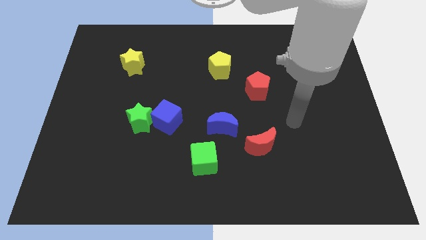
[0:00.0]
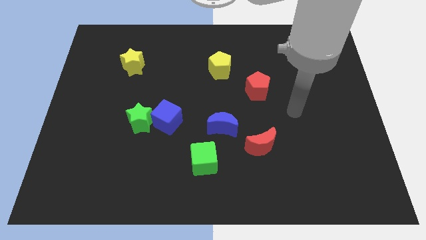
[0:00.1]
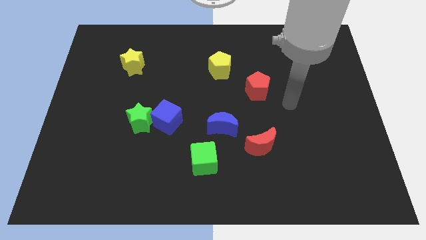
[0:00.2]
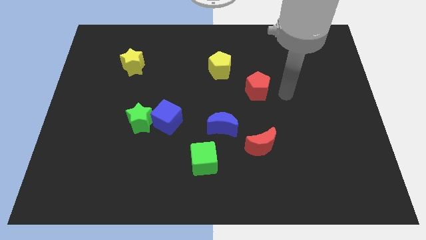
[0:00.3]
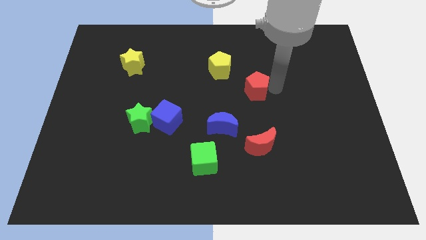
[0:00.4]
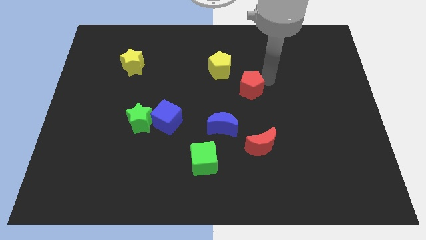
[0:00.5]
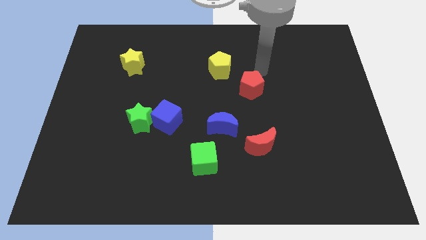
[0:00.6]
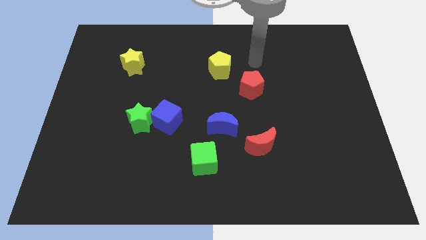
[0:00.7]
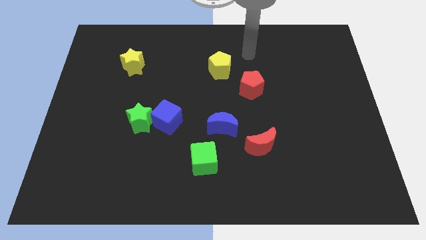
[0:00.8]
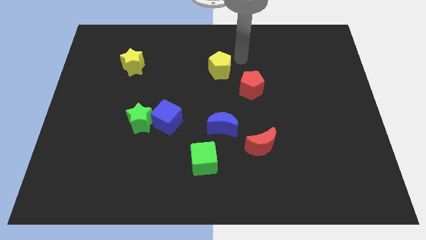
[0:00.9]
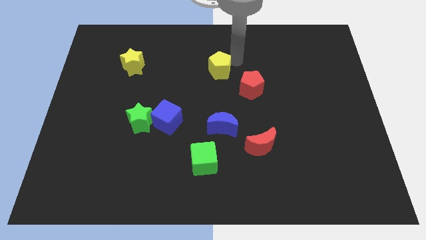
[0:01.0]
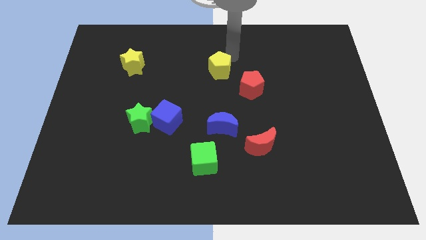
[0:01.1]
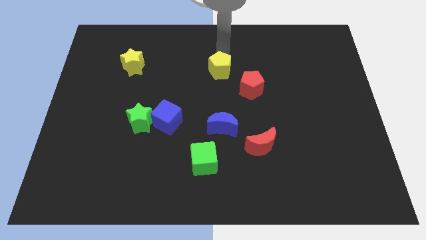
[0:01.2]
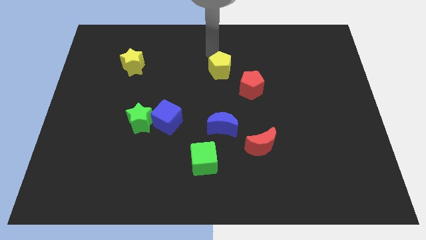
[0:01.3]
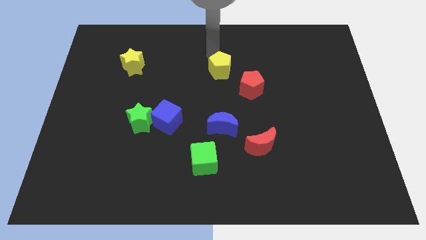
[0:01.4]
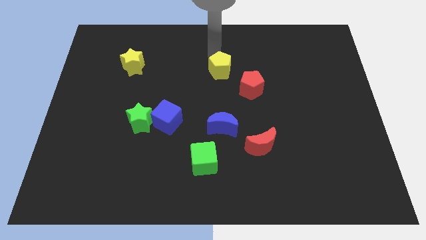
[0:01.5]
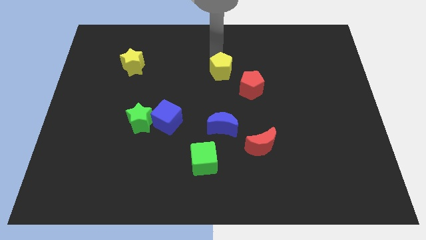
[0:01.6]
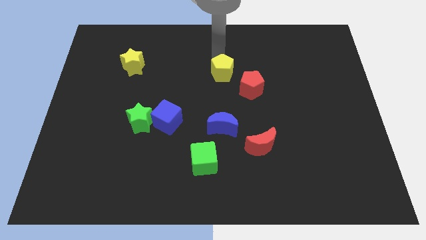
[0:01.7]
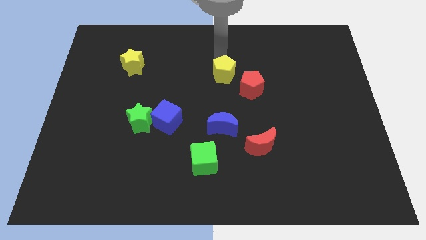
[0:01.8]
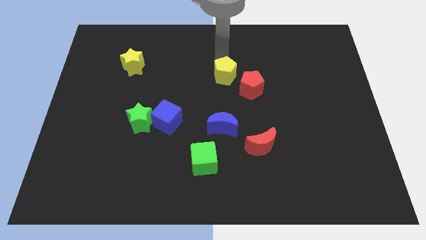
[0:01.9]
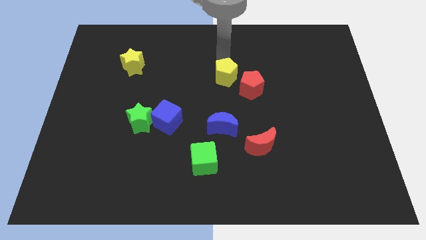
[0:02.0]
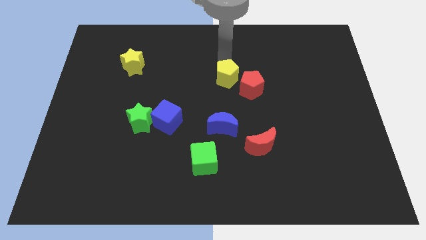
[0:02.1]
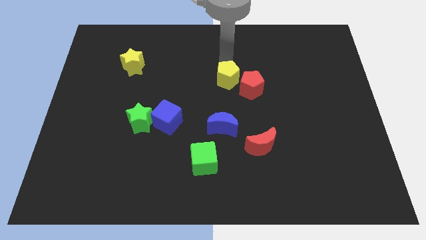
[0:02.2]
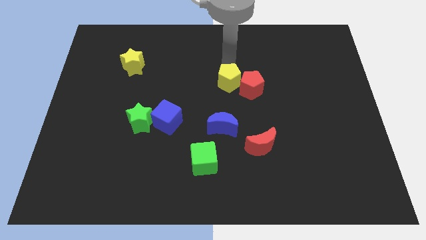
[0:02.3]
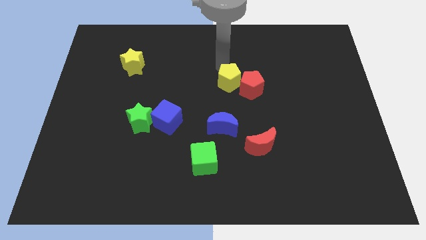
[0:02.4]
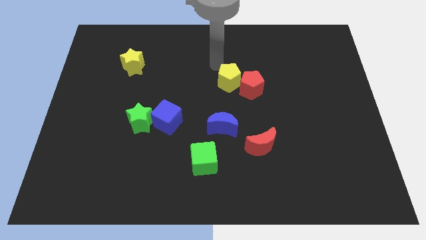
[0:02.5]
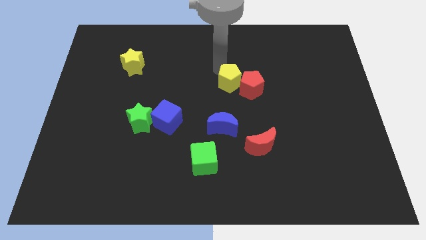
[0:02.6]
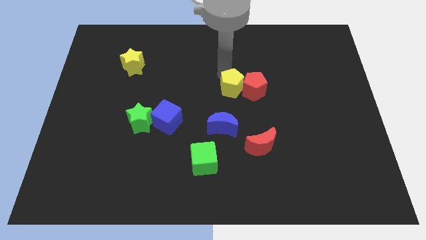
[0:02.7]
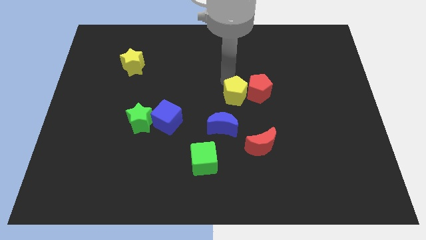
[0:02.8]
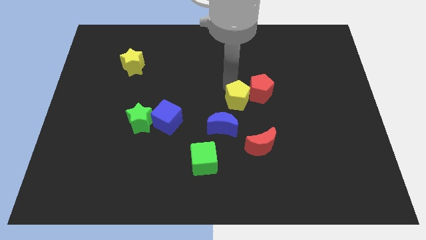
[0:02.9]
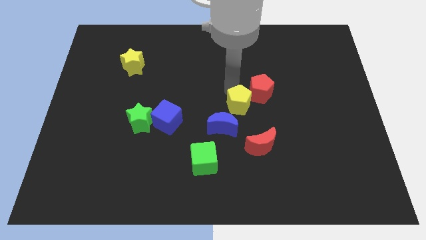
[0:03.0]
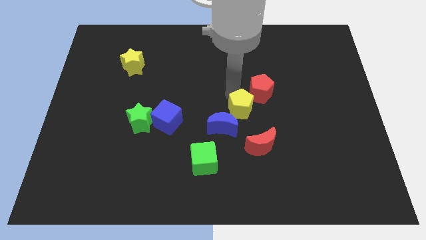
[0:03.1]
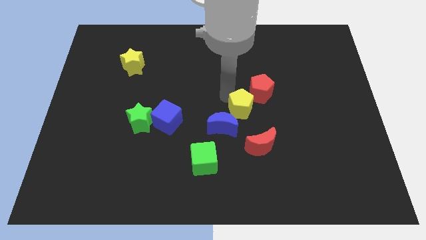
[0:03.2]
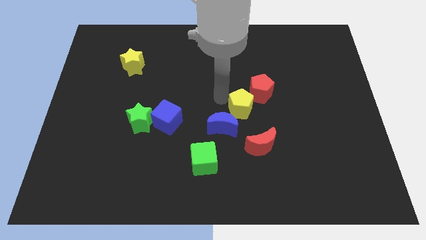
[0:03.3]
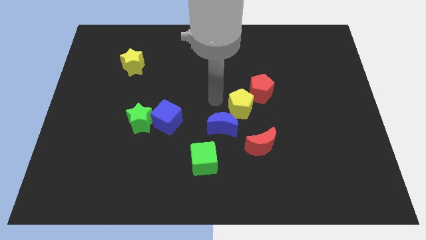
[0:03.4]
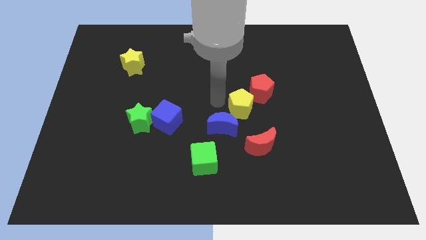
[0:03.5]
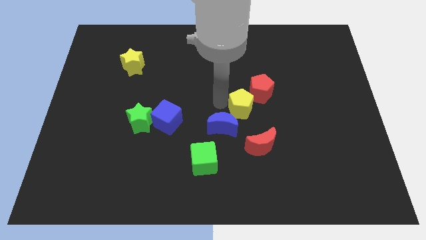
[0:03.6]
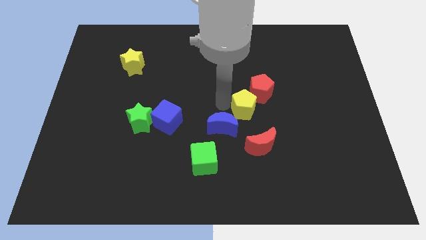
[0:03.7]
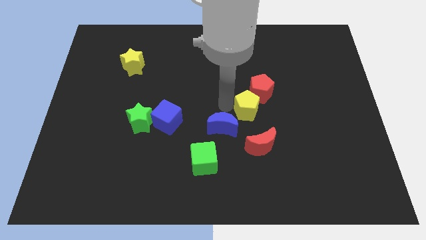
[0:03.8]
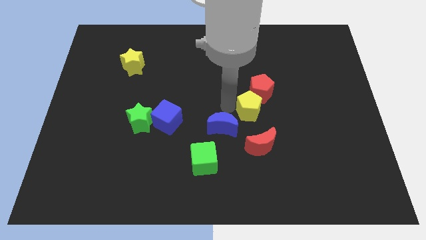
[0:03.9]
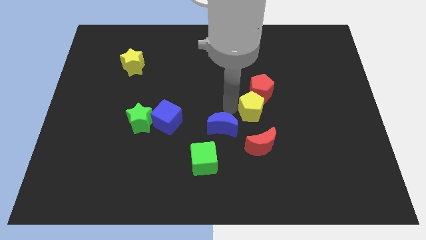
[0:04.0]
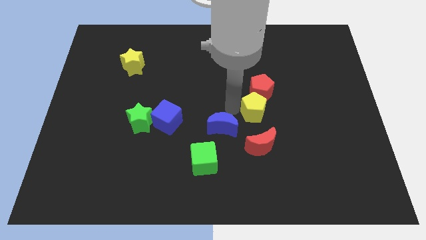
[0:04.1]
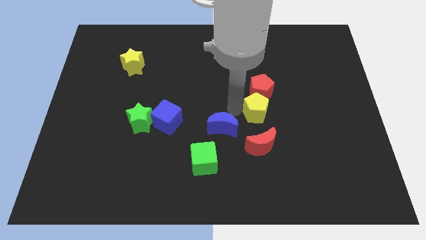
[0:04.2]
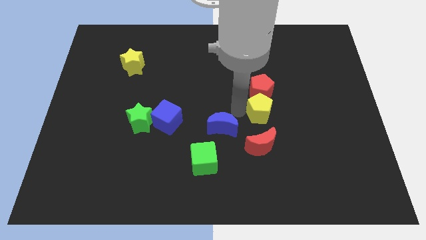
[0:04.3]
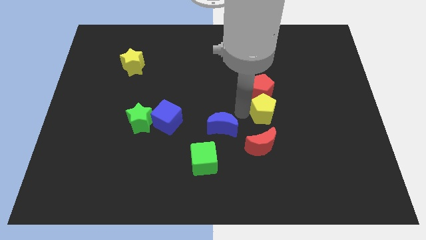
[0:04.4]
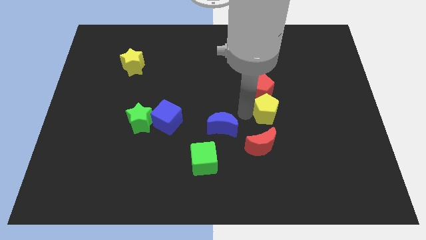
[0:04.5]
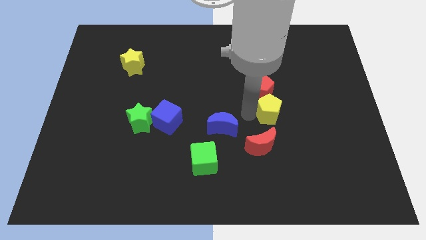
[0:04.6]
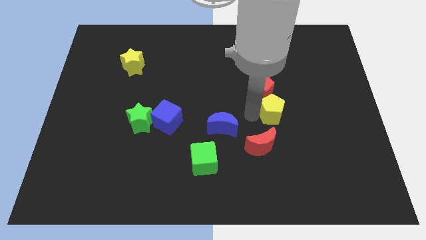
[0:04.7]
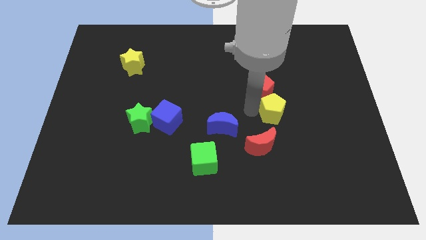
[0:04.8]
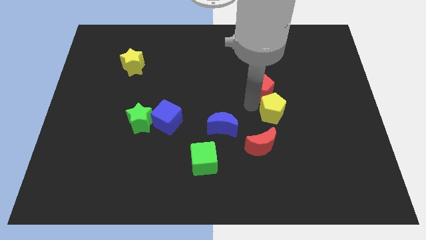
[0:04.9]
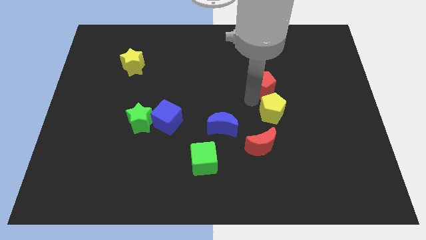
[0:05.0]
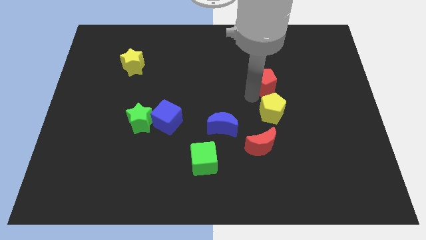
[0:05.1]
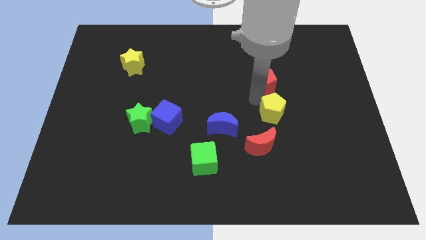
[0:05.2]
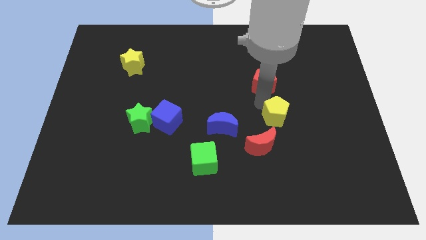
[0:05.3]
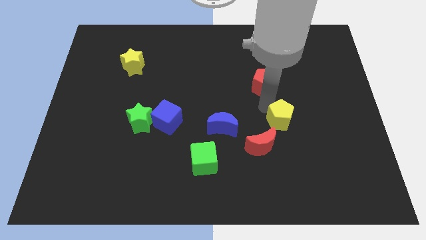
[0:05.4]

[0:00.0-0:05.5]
move the yellow pentagon diagonally down and to the right

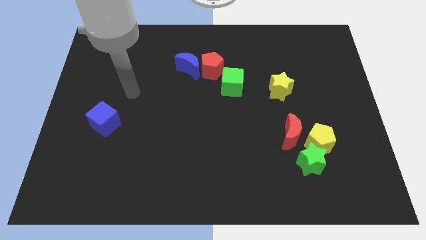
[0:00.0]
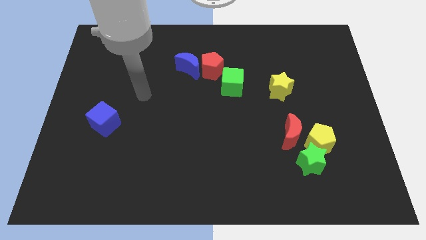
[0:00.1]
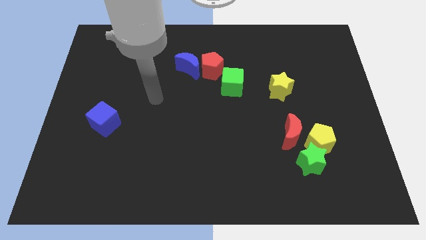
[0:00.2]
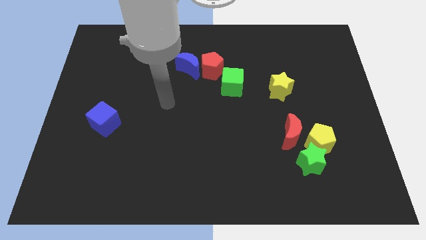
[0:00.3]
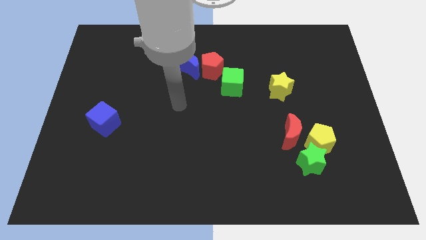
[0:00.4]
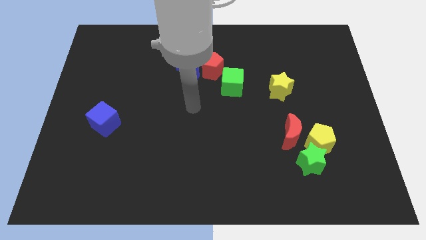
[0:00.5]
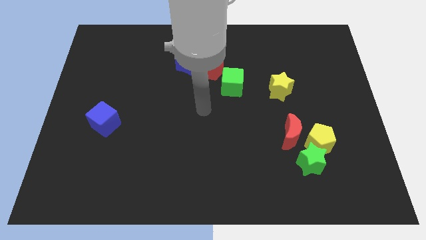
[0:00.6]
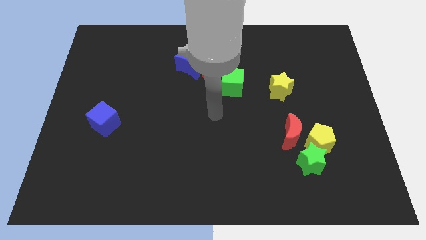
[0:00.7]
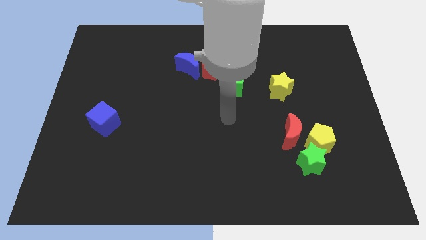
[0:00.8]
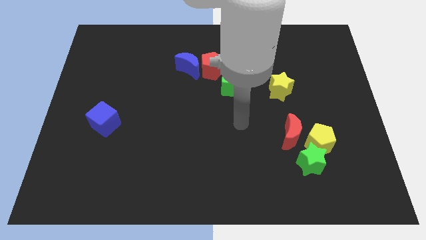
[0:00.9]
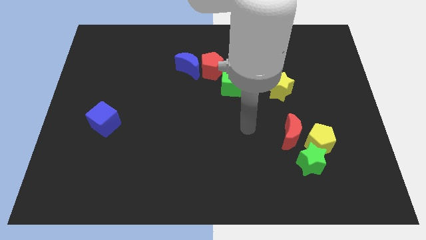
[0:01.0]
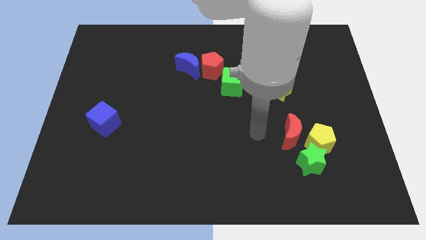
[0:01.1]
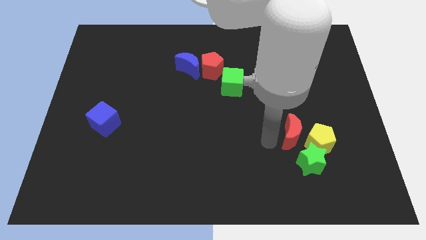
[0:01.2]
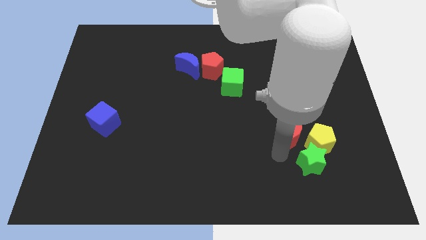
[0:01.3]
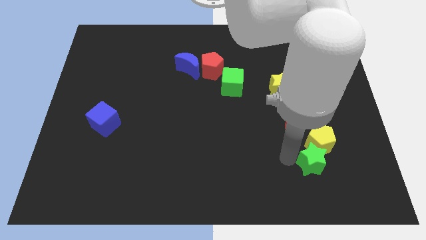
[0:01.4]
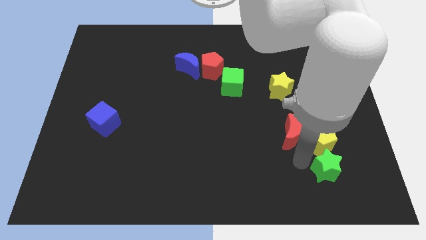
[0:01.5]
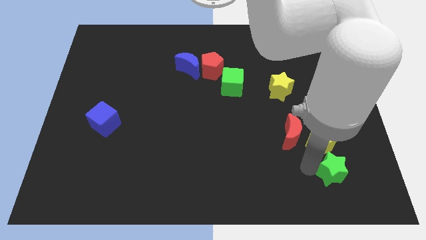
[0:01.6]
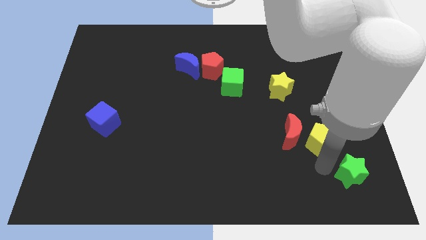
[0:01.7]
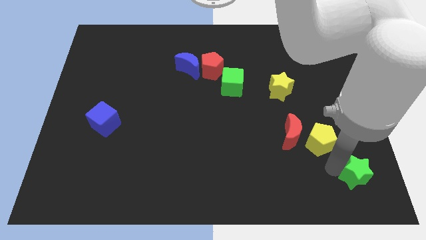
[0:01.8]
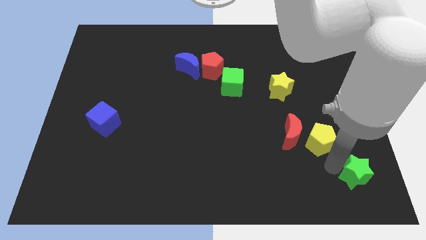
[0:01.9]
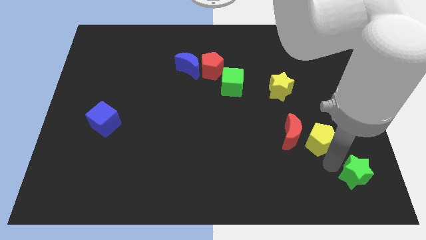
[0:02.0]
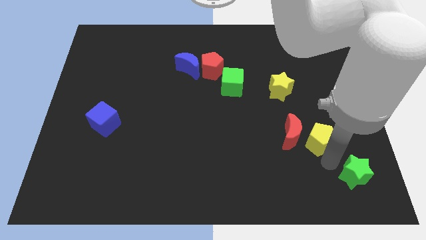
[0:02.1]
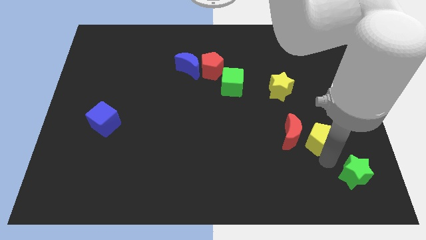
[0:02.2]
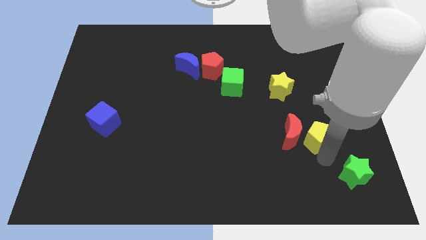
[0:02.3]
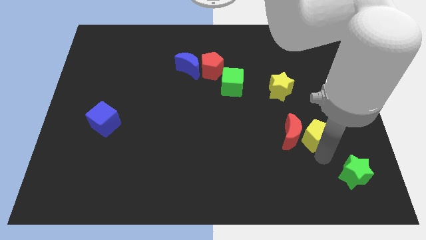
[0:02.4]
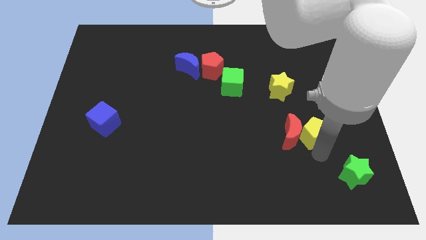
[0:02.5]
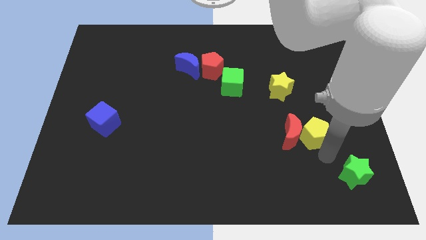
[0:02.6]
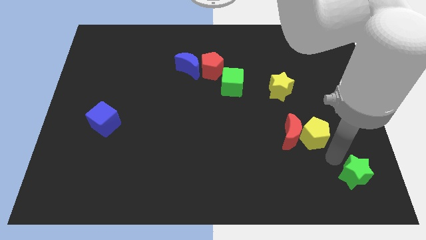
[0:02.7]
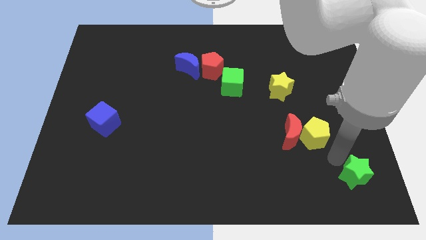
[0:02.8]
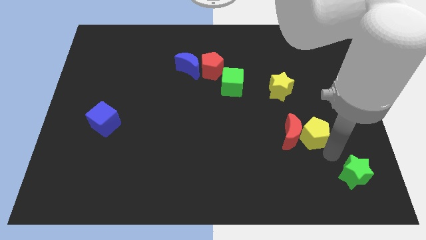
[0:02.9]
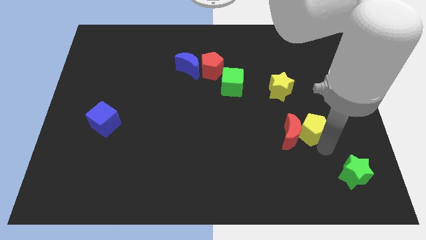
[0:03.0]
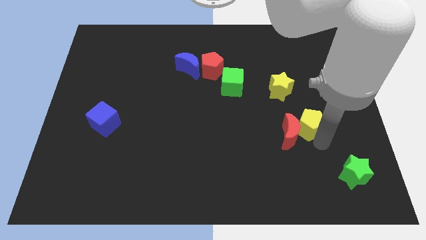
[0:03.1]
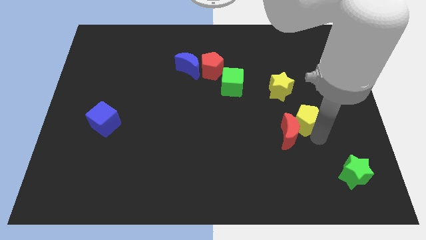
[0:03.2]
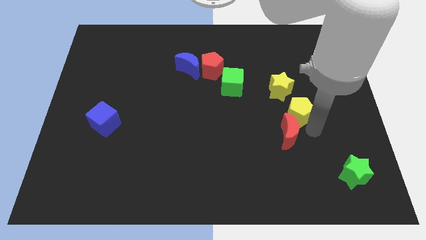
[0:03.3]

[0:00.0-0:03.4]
slightly push the yellow pentagon up and left
